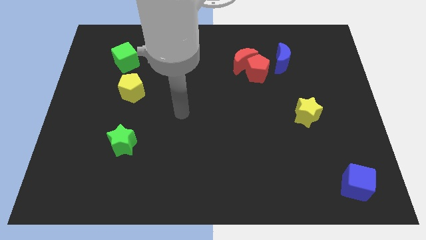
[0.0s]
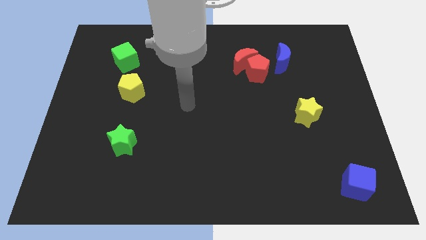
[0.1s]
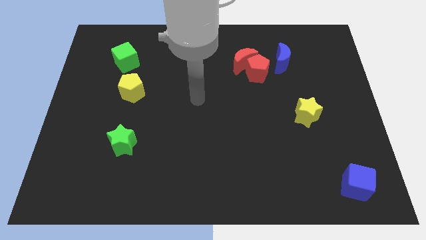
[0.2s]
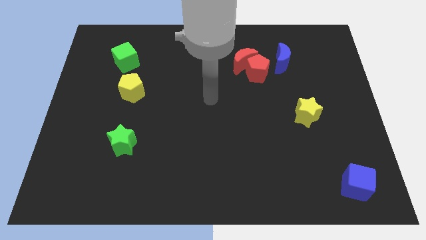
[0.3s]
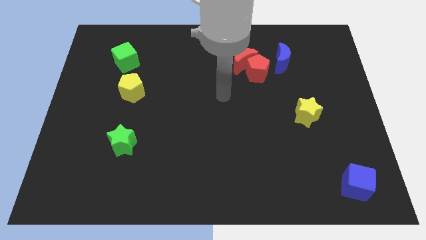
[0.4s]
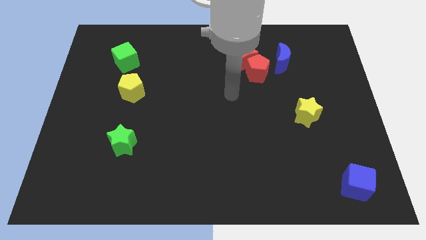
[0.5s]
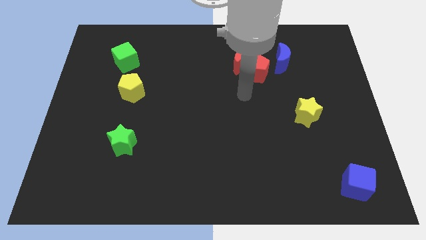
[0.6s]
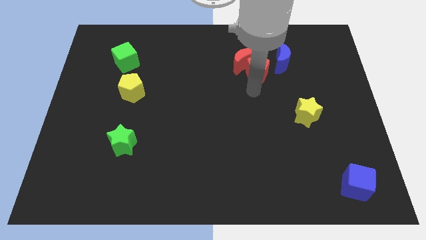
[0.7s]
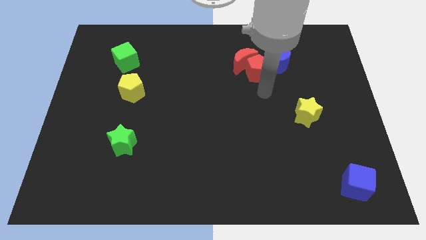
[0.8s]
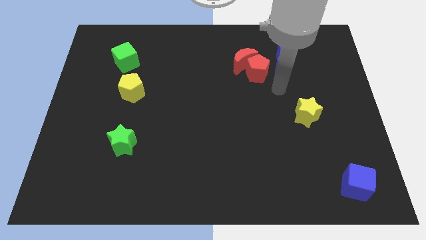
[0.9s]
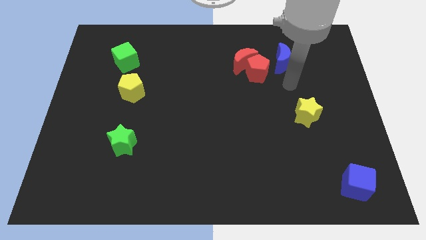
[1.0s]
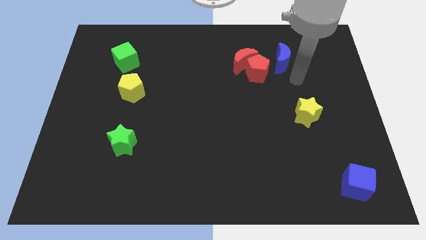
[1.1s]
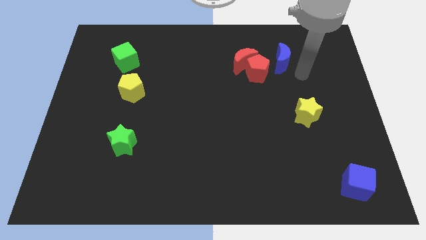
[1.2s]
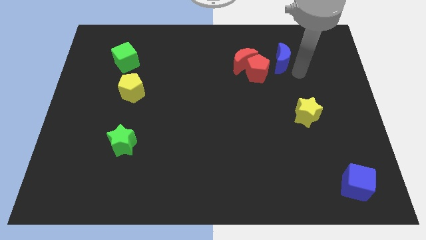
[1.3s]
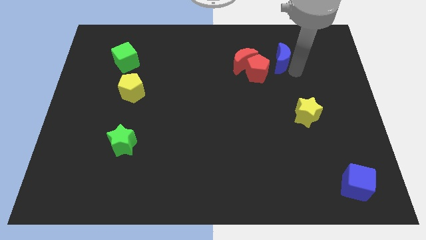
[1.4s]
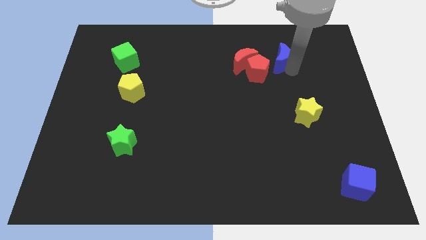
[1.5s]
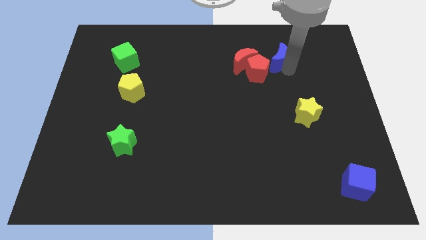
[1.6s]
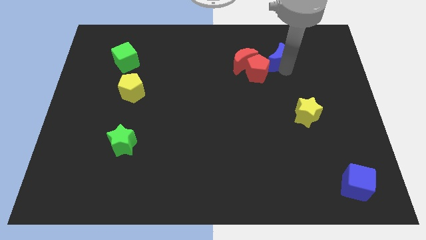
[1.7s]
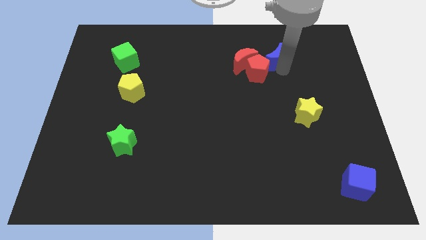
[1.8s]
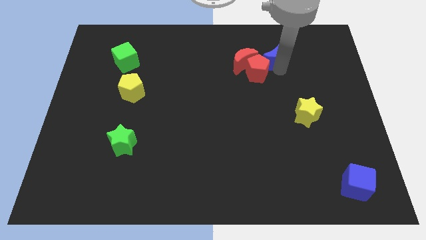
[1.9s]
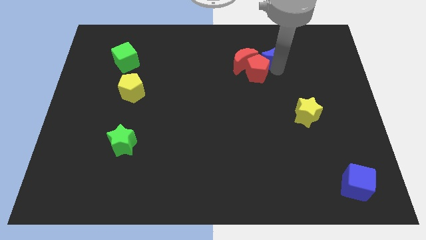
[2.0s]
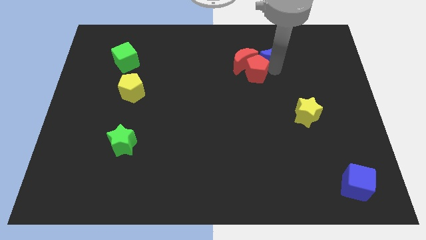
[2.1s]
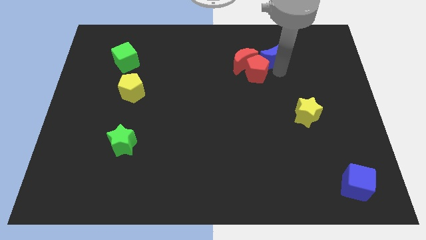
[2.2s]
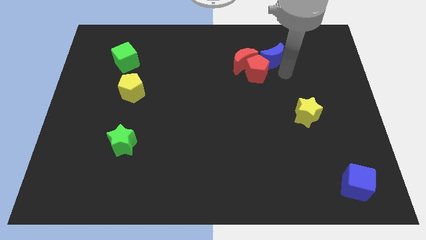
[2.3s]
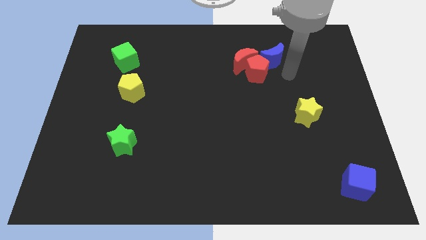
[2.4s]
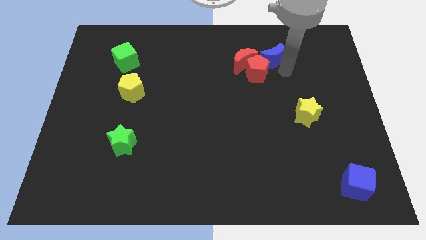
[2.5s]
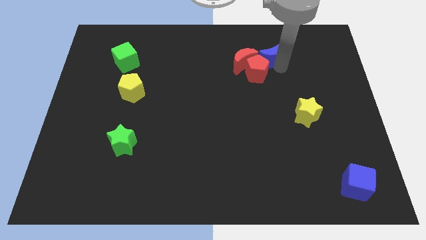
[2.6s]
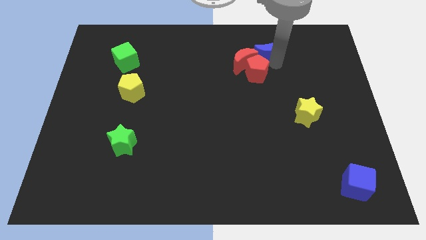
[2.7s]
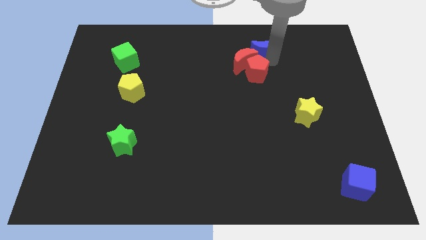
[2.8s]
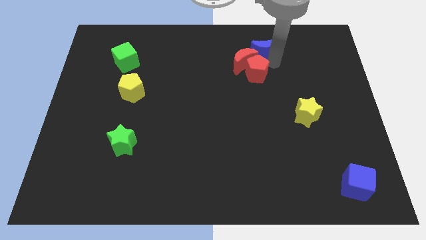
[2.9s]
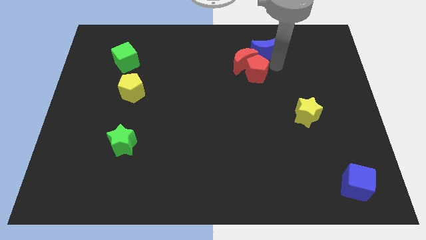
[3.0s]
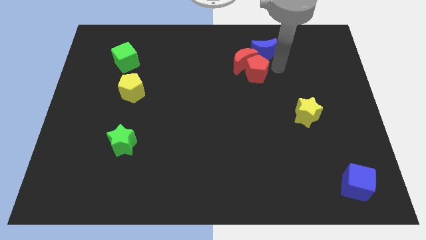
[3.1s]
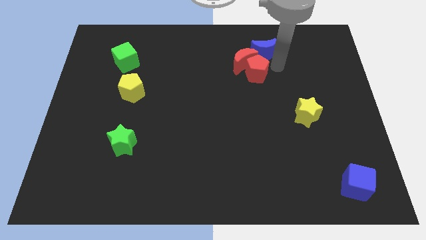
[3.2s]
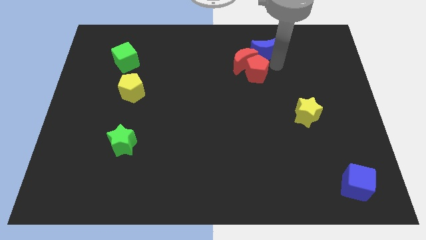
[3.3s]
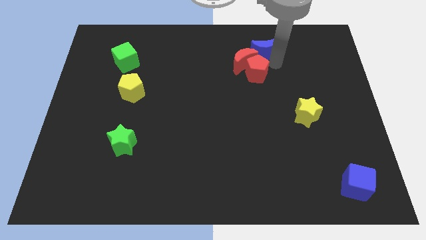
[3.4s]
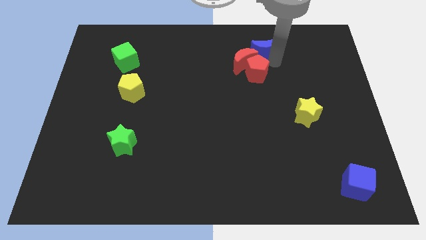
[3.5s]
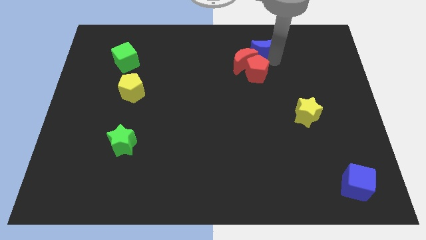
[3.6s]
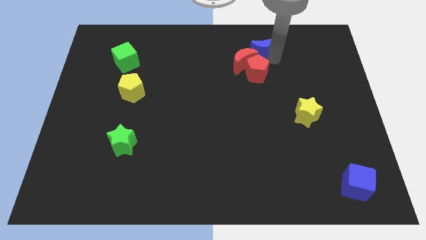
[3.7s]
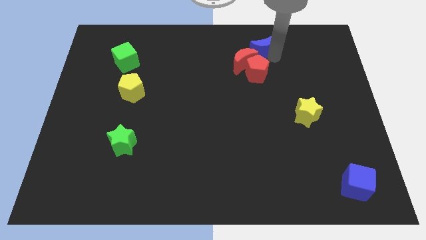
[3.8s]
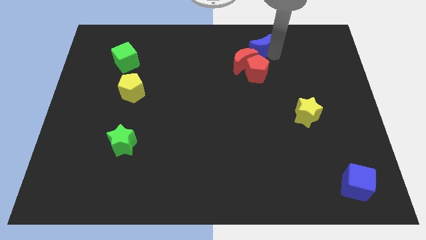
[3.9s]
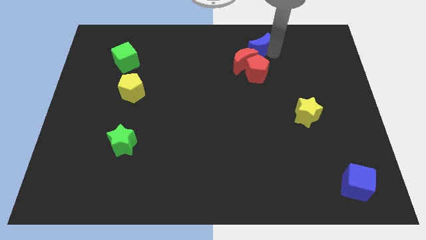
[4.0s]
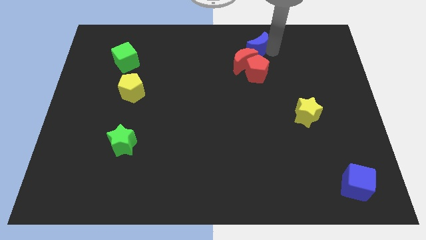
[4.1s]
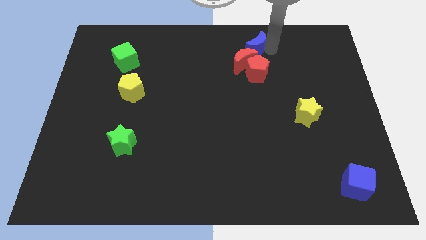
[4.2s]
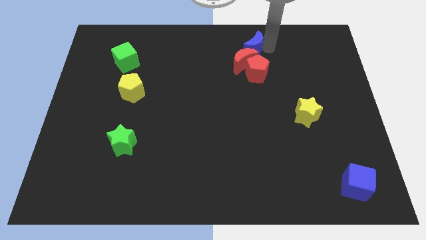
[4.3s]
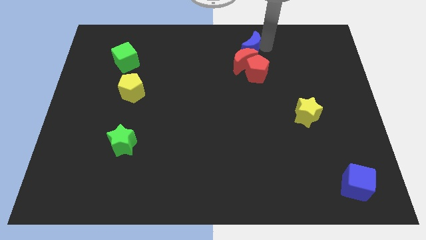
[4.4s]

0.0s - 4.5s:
push the blue moon to the left a bit

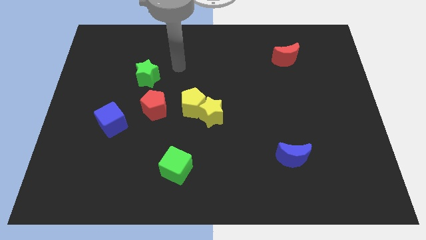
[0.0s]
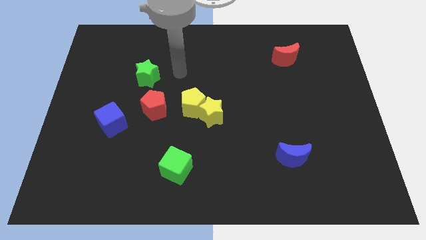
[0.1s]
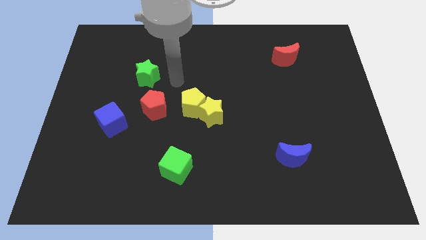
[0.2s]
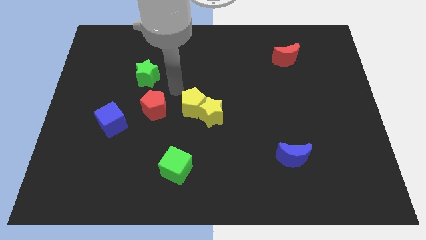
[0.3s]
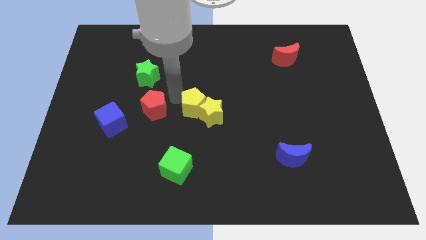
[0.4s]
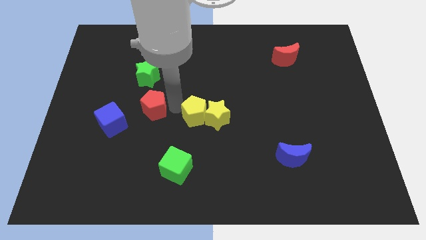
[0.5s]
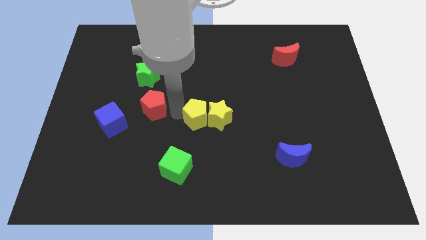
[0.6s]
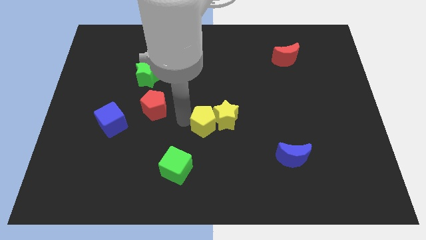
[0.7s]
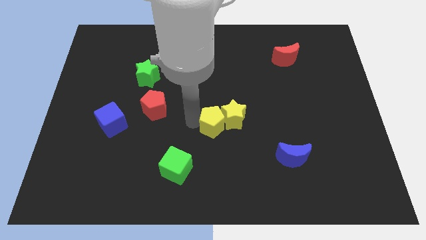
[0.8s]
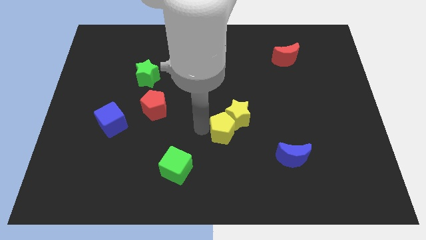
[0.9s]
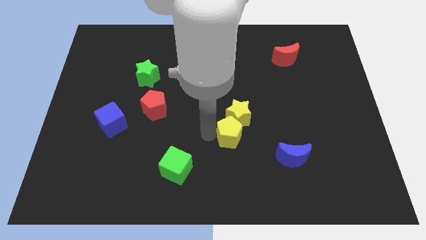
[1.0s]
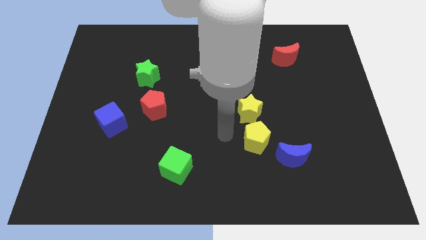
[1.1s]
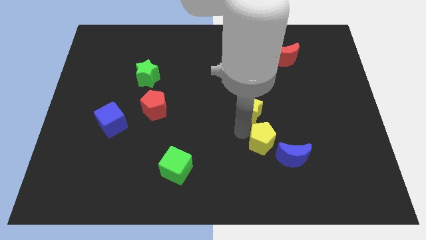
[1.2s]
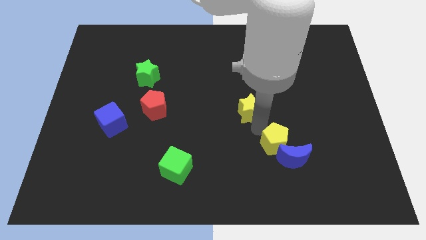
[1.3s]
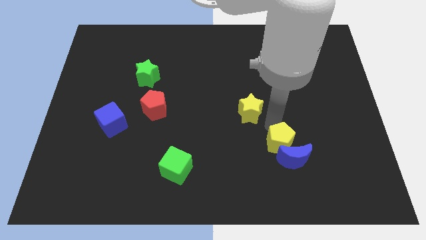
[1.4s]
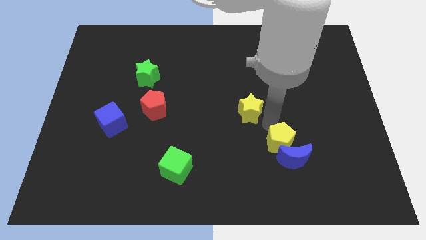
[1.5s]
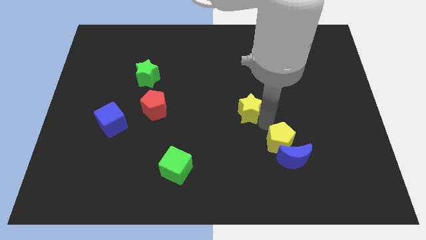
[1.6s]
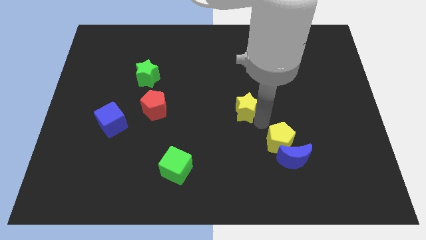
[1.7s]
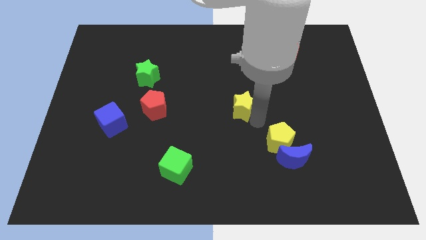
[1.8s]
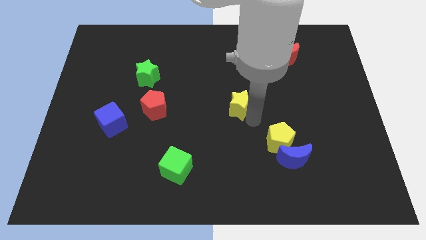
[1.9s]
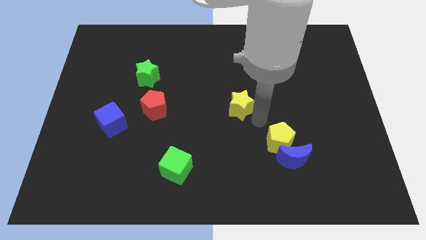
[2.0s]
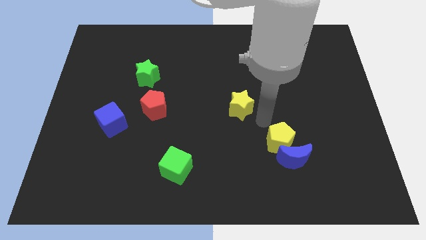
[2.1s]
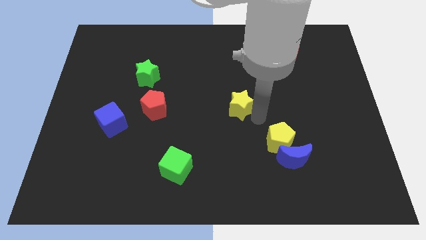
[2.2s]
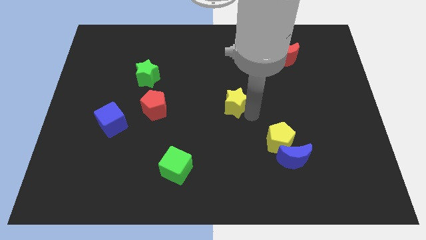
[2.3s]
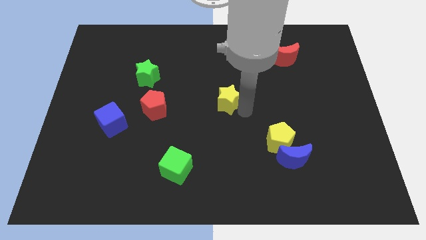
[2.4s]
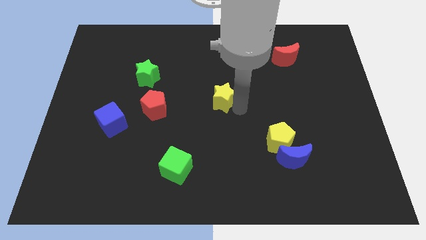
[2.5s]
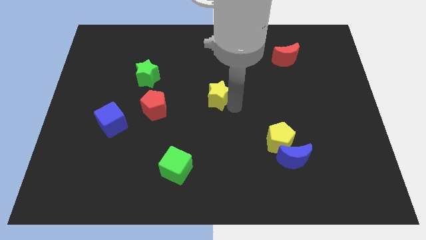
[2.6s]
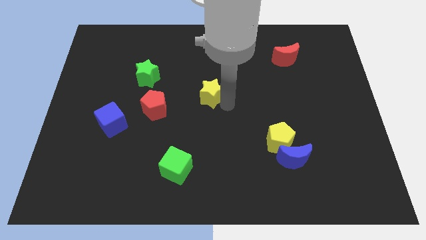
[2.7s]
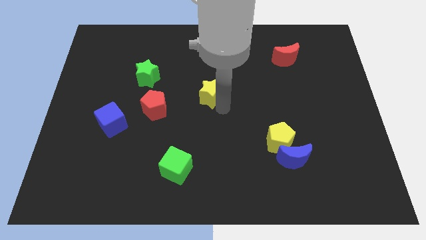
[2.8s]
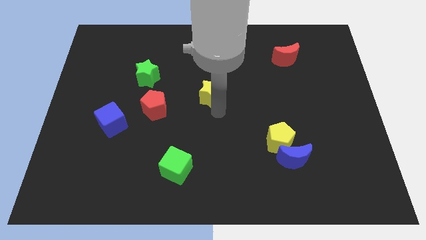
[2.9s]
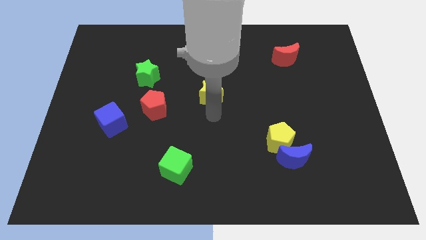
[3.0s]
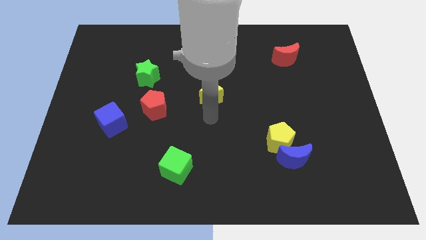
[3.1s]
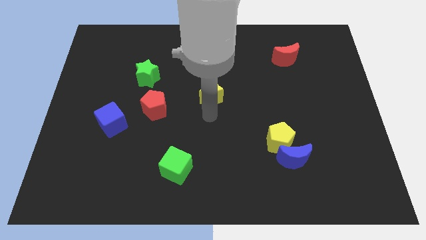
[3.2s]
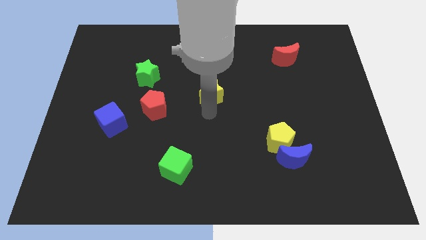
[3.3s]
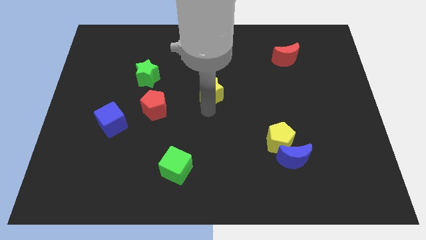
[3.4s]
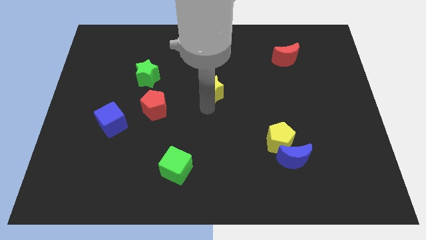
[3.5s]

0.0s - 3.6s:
slide the yellow star a little upwards
